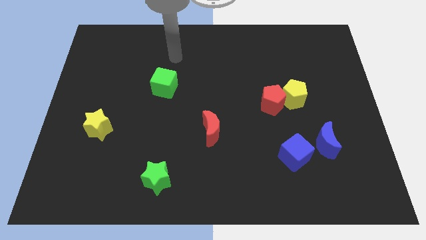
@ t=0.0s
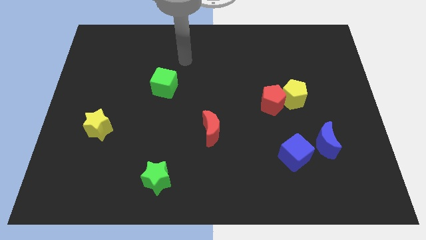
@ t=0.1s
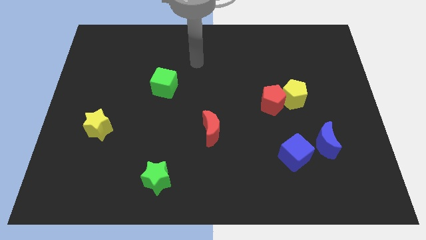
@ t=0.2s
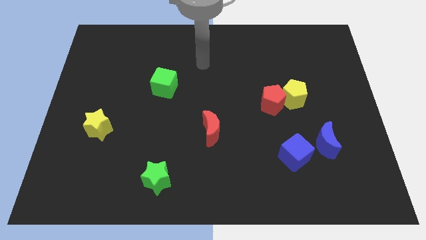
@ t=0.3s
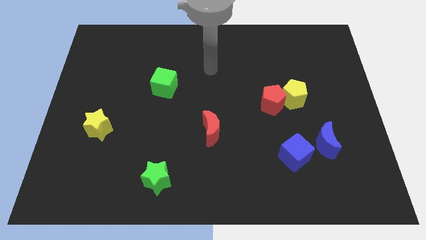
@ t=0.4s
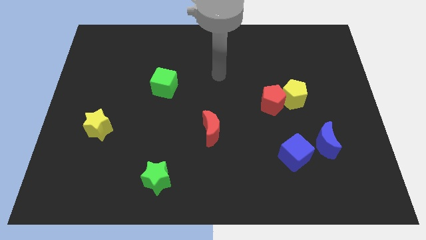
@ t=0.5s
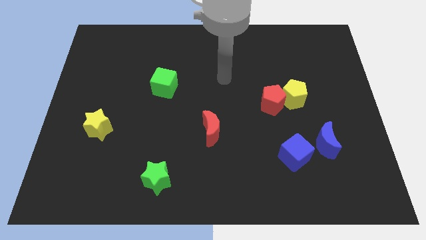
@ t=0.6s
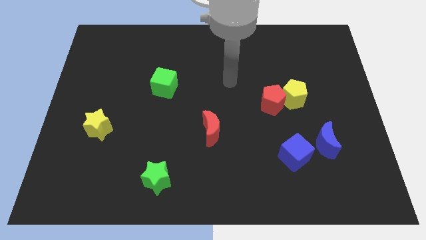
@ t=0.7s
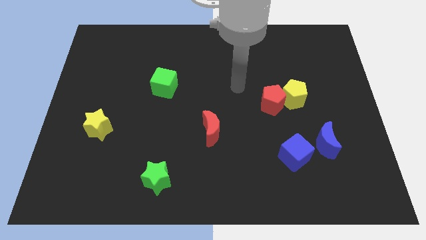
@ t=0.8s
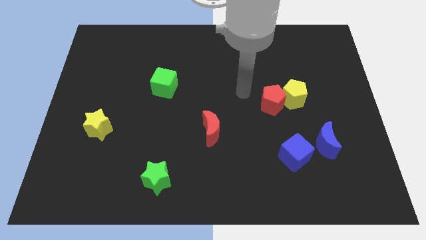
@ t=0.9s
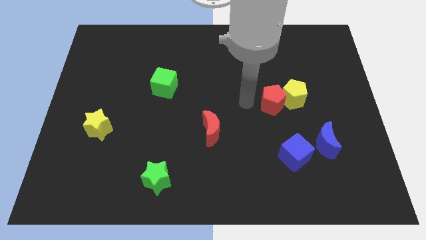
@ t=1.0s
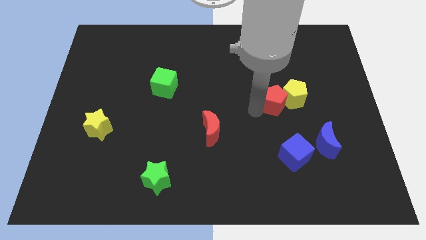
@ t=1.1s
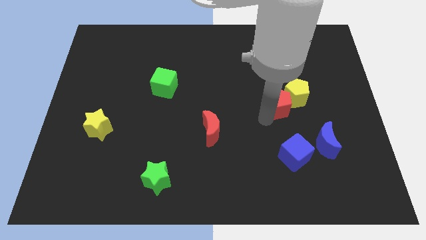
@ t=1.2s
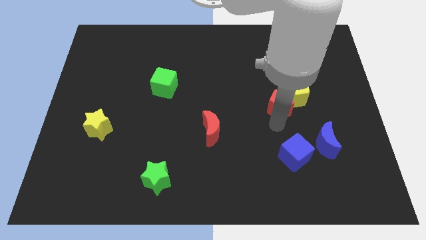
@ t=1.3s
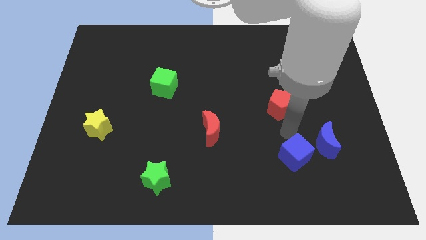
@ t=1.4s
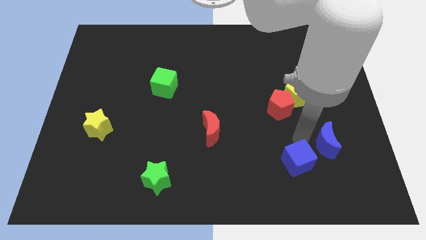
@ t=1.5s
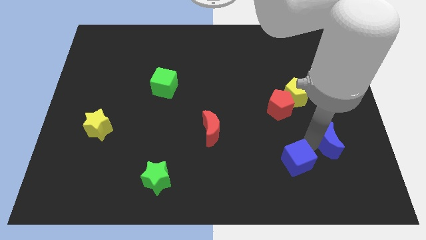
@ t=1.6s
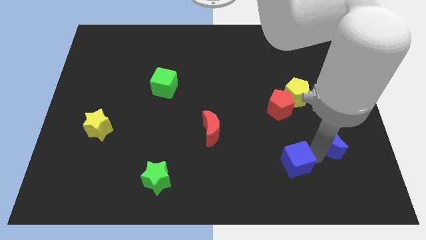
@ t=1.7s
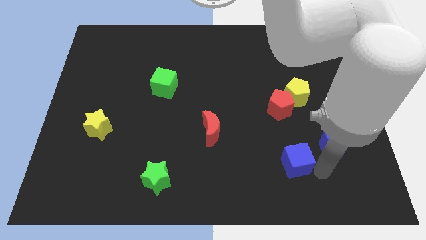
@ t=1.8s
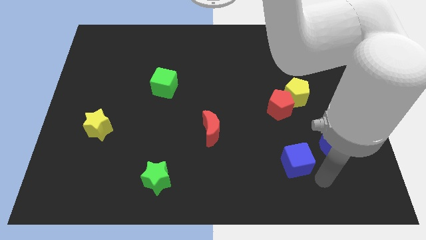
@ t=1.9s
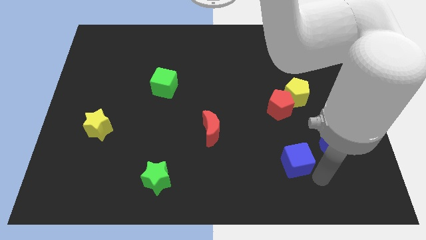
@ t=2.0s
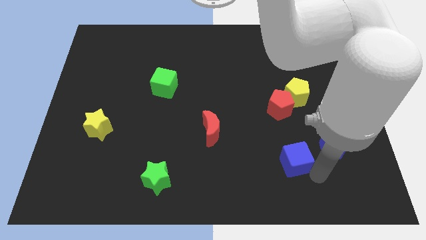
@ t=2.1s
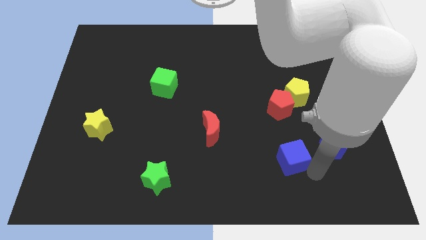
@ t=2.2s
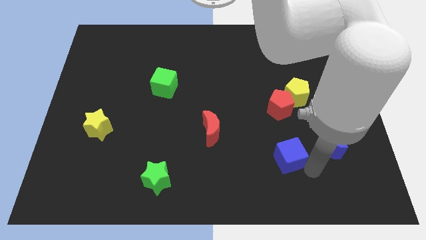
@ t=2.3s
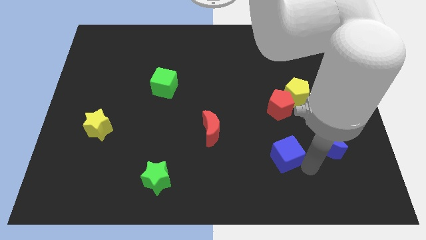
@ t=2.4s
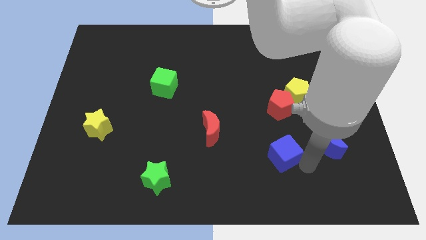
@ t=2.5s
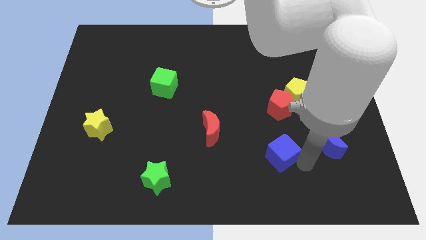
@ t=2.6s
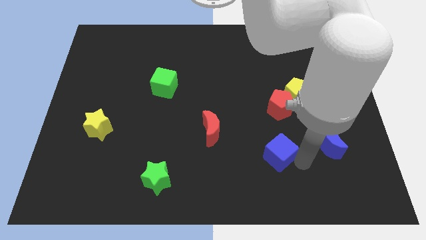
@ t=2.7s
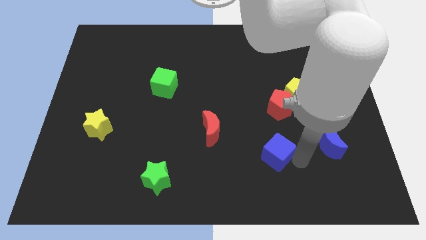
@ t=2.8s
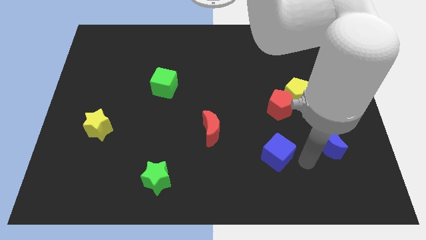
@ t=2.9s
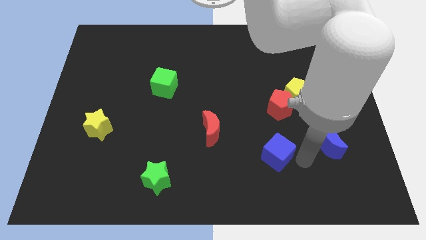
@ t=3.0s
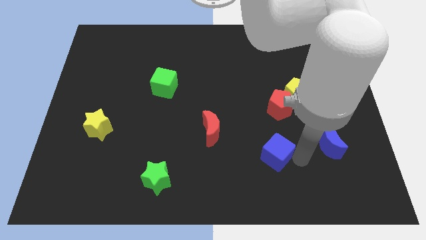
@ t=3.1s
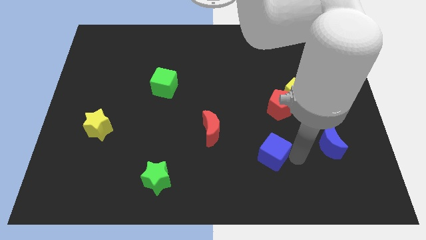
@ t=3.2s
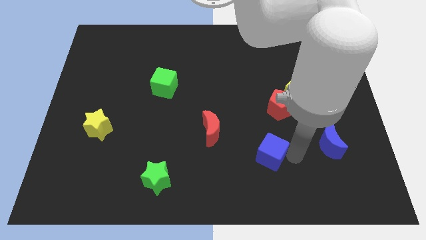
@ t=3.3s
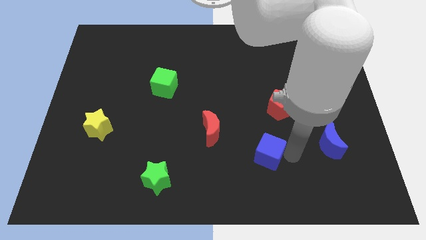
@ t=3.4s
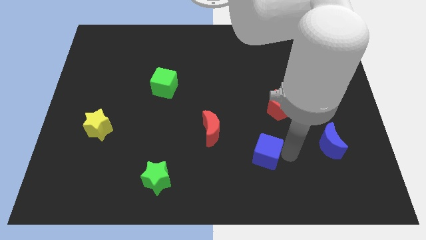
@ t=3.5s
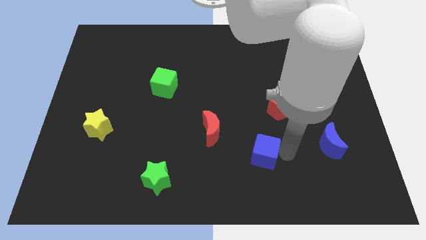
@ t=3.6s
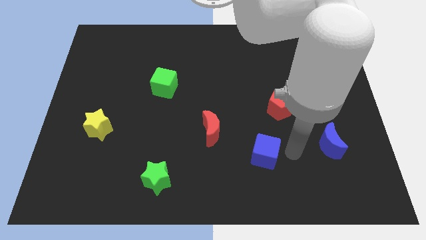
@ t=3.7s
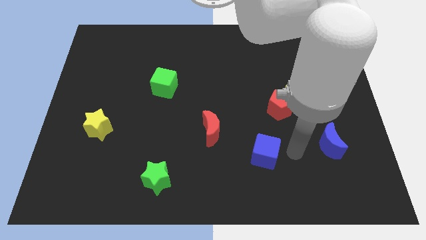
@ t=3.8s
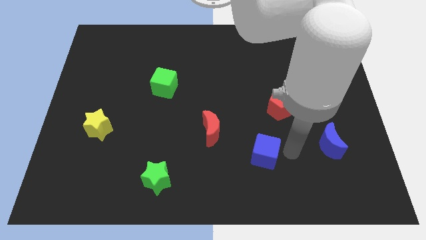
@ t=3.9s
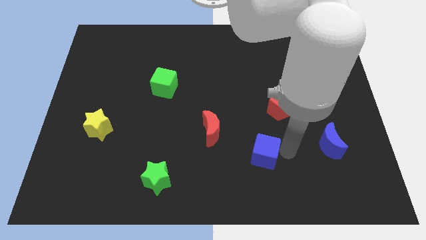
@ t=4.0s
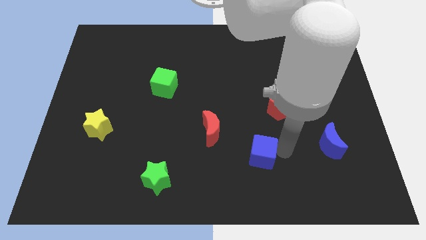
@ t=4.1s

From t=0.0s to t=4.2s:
slide the blue cube a little bit left

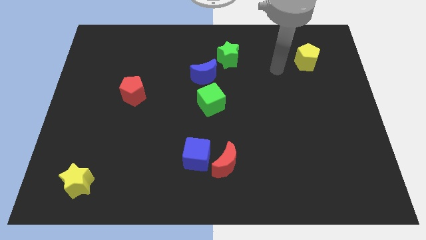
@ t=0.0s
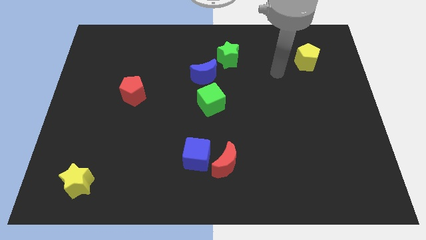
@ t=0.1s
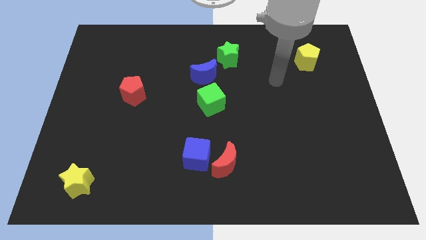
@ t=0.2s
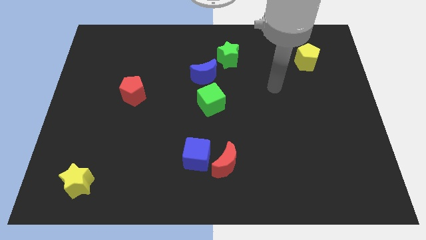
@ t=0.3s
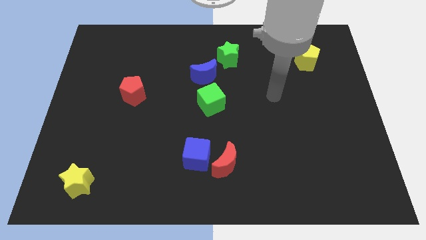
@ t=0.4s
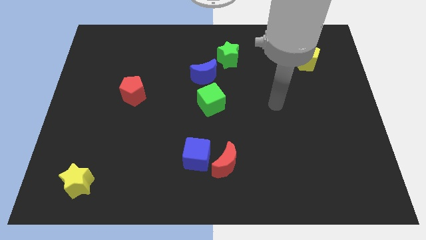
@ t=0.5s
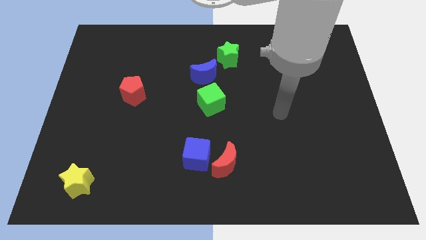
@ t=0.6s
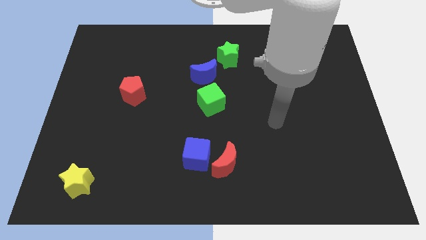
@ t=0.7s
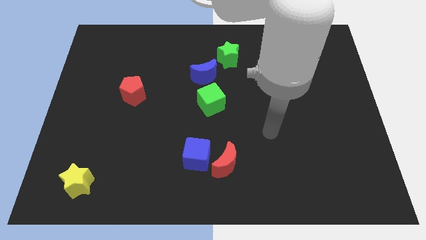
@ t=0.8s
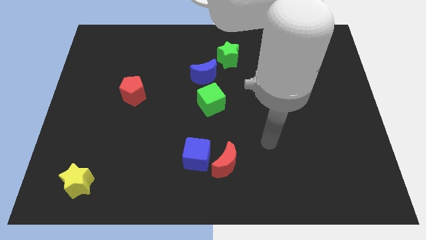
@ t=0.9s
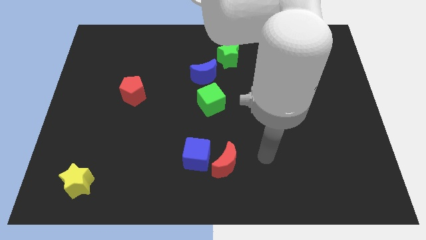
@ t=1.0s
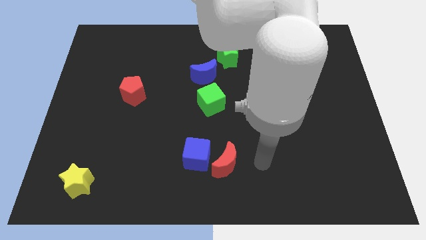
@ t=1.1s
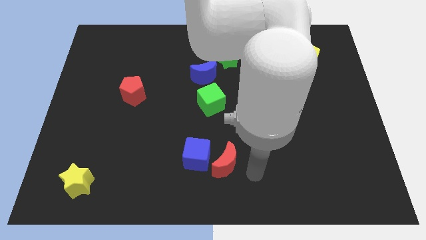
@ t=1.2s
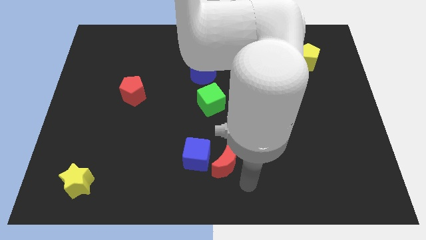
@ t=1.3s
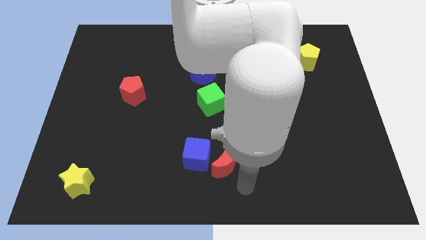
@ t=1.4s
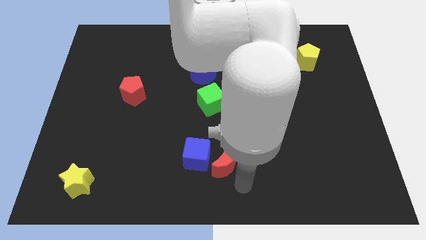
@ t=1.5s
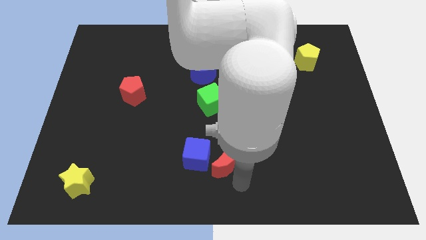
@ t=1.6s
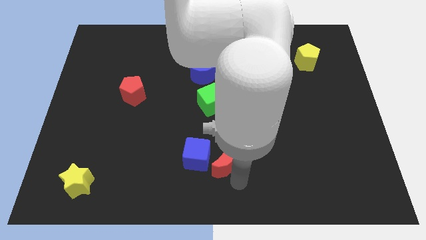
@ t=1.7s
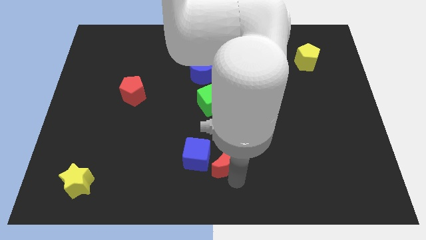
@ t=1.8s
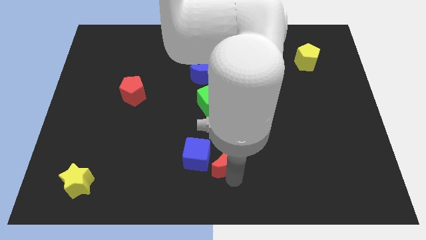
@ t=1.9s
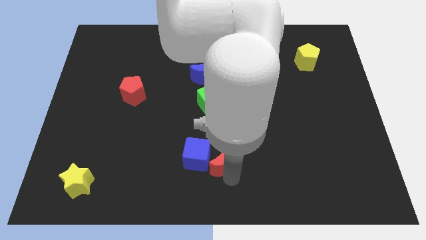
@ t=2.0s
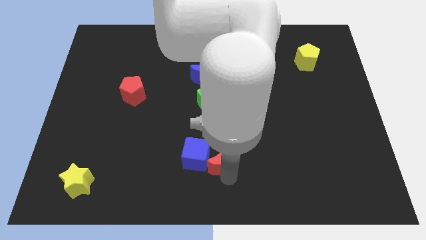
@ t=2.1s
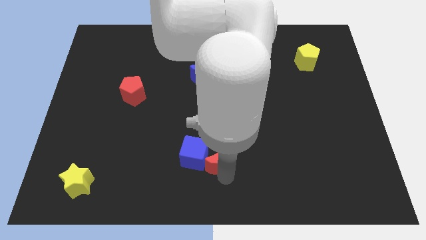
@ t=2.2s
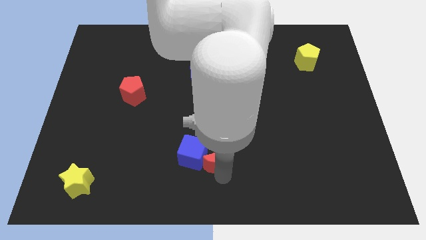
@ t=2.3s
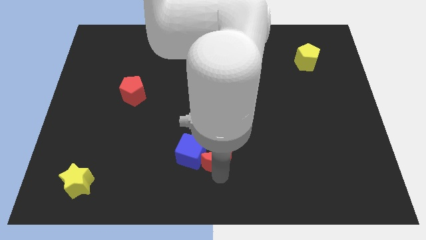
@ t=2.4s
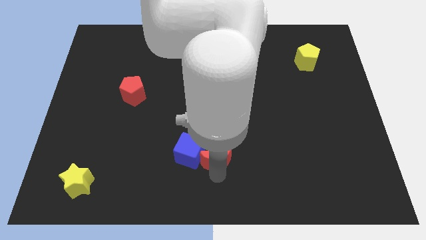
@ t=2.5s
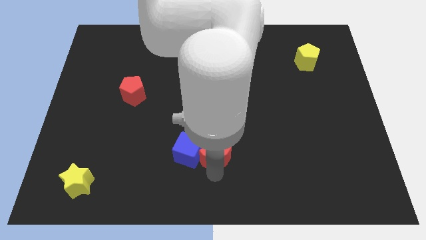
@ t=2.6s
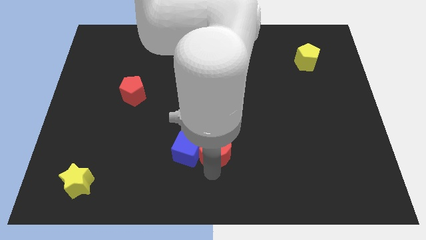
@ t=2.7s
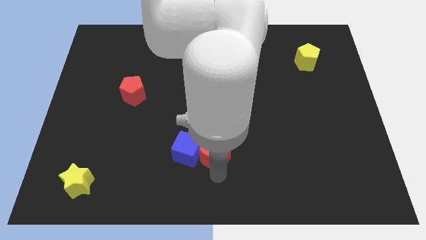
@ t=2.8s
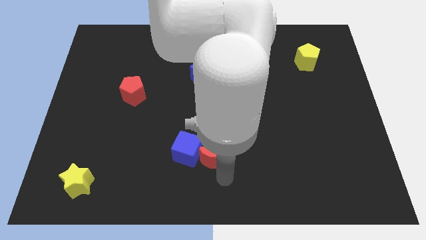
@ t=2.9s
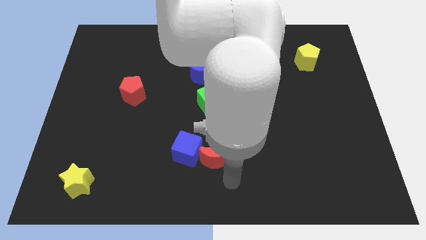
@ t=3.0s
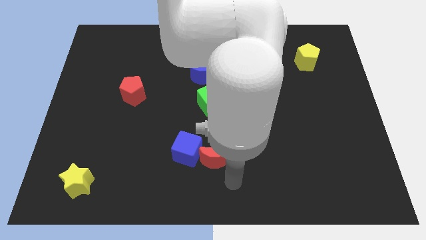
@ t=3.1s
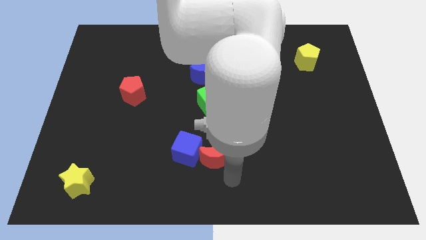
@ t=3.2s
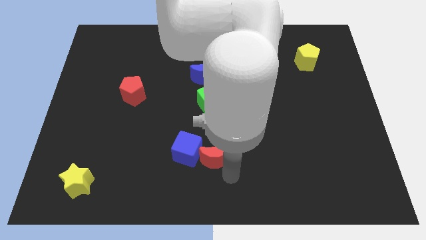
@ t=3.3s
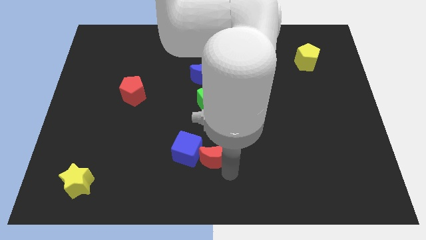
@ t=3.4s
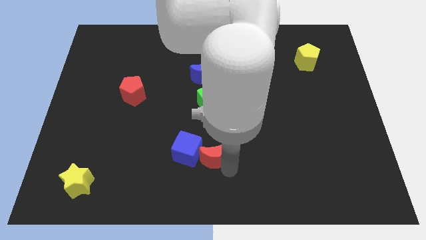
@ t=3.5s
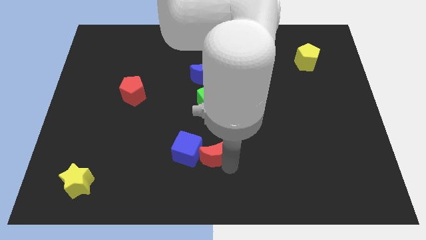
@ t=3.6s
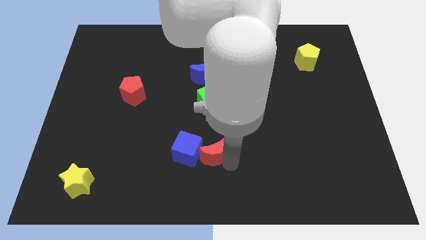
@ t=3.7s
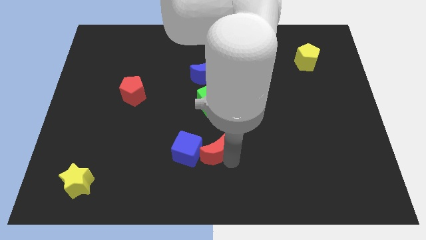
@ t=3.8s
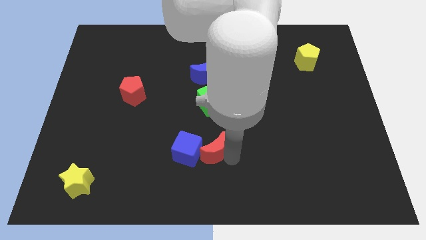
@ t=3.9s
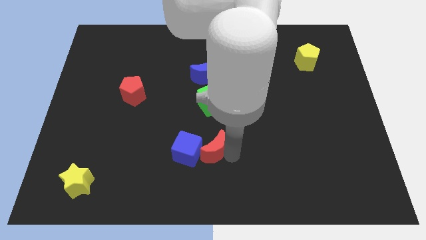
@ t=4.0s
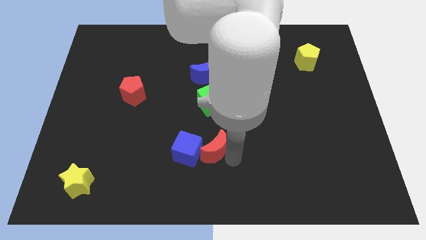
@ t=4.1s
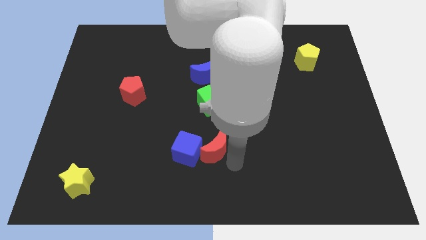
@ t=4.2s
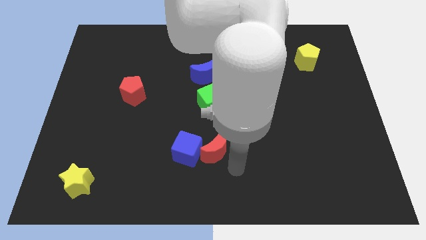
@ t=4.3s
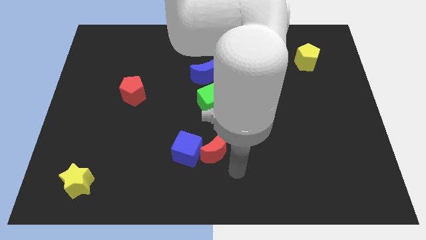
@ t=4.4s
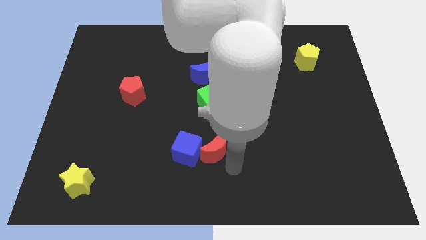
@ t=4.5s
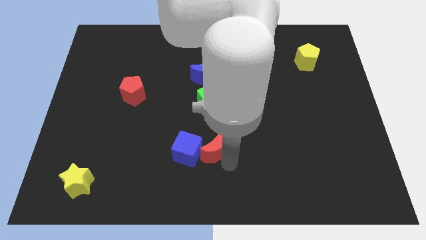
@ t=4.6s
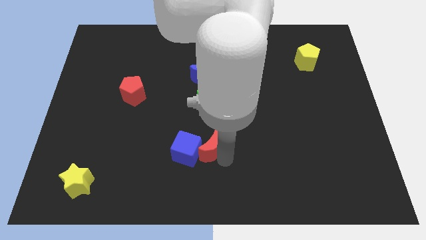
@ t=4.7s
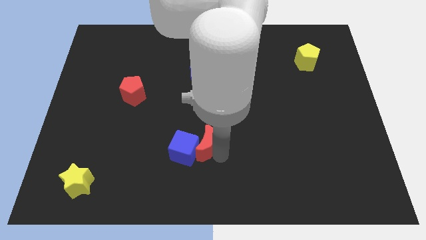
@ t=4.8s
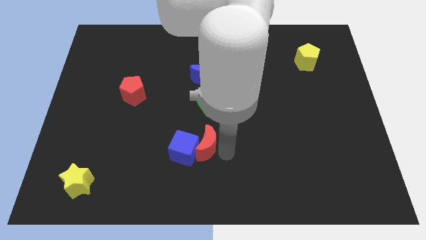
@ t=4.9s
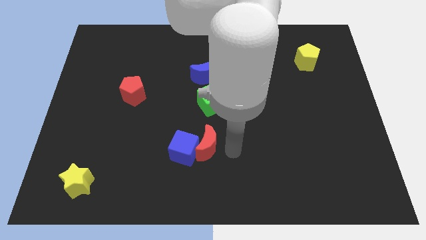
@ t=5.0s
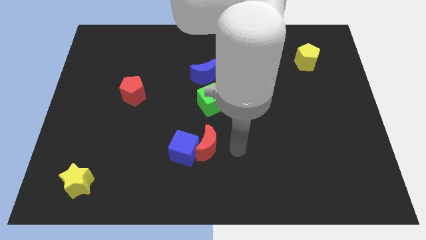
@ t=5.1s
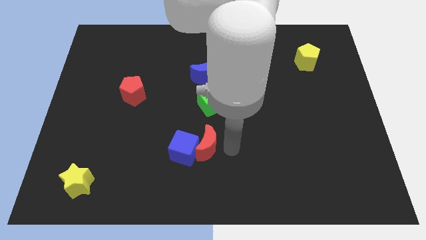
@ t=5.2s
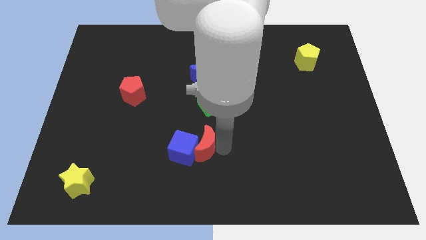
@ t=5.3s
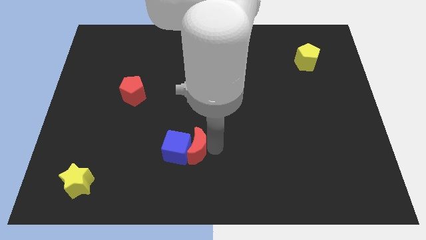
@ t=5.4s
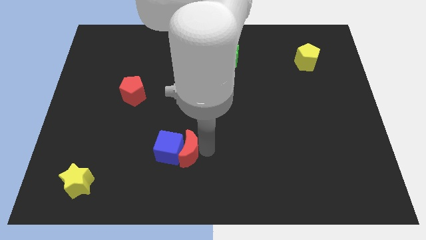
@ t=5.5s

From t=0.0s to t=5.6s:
slightly move the red moon left
